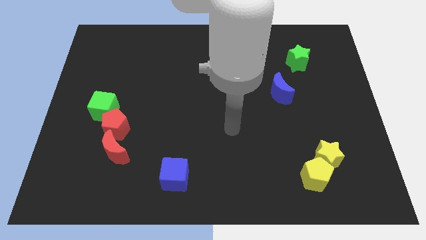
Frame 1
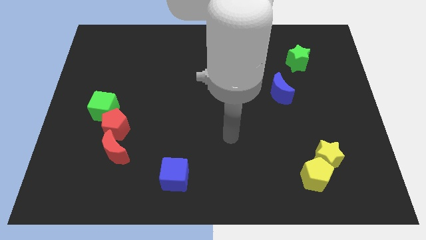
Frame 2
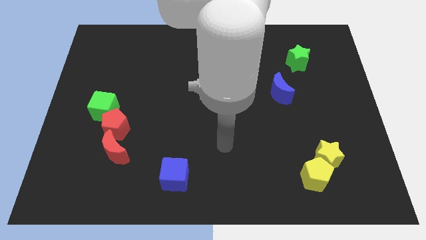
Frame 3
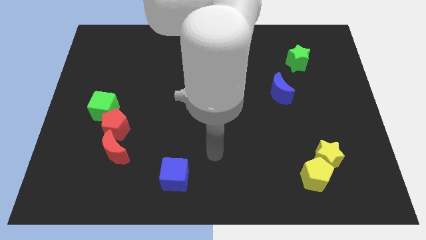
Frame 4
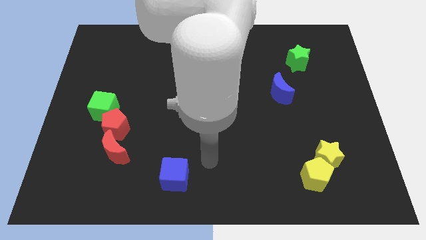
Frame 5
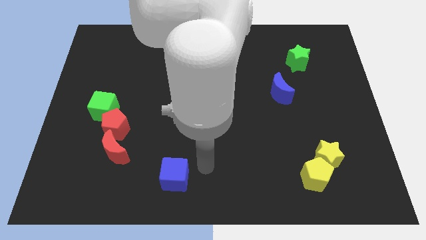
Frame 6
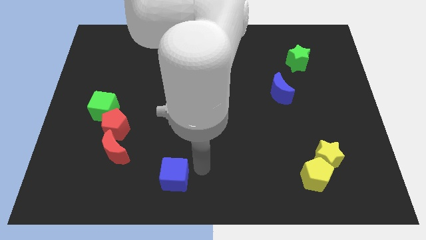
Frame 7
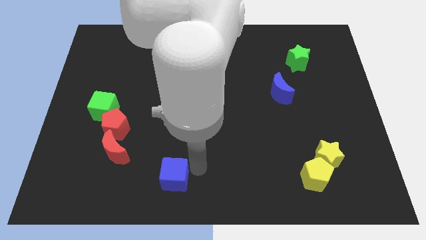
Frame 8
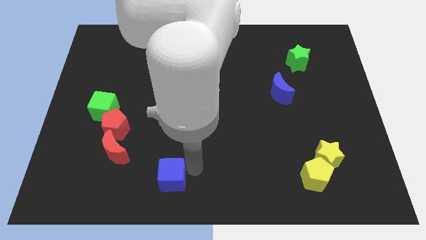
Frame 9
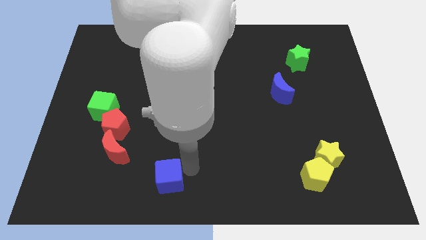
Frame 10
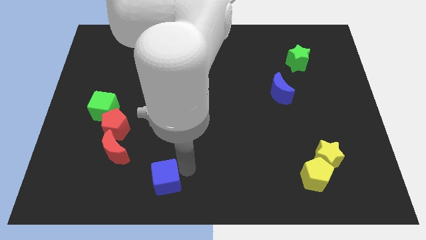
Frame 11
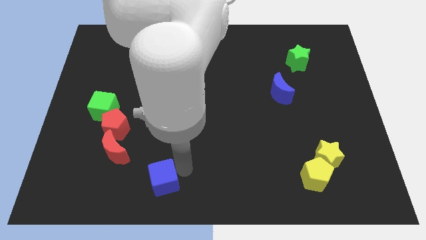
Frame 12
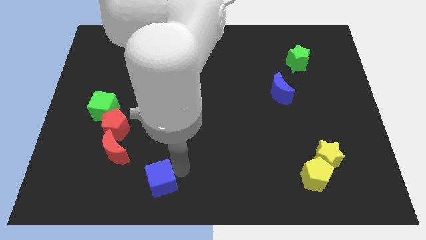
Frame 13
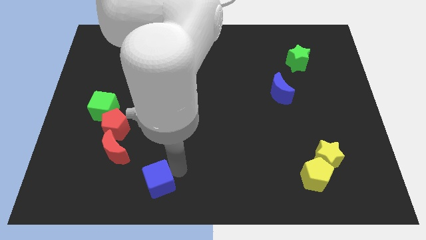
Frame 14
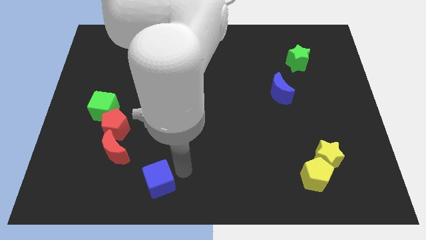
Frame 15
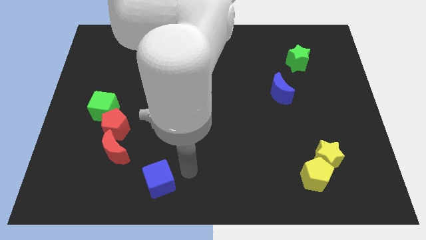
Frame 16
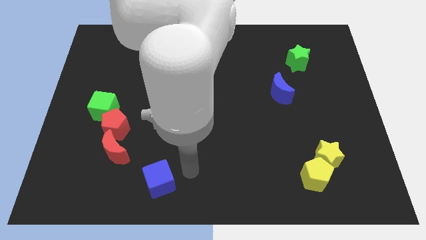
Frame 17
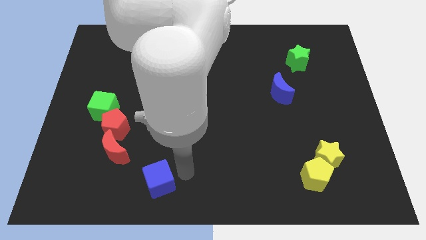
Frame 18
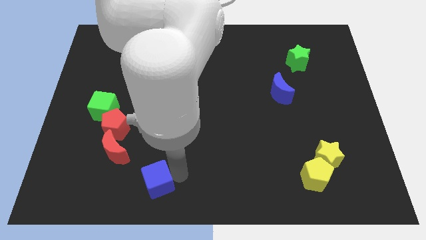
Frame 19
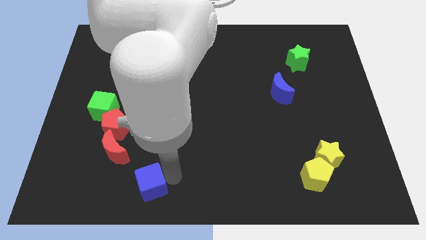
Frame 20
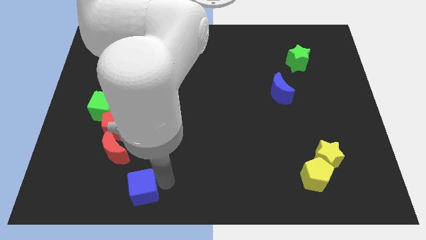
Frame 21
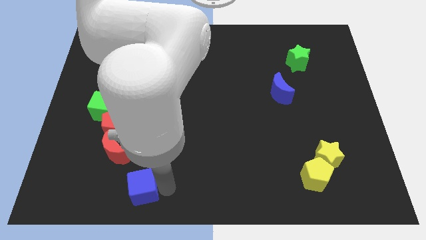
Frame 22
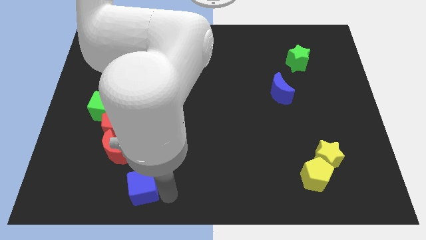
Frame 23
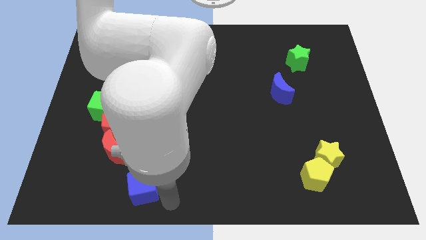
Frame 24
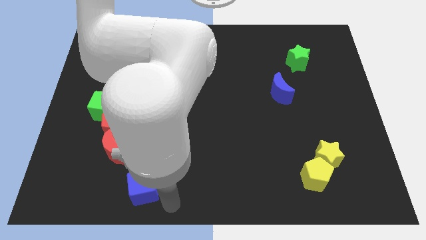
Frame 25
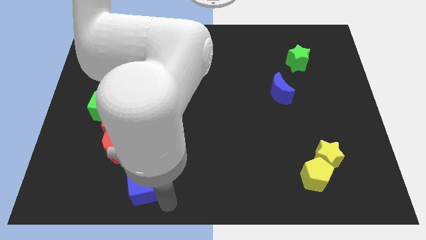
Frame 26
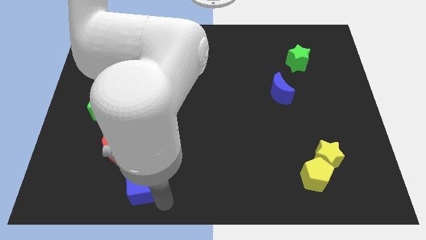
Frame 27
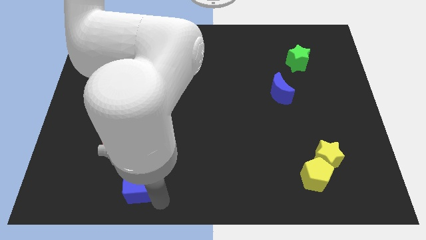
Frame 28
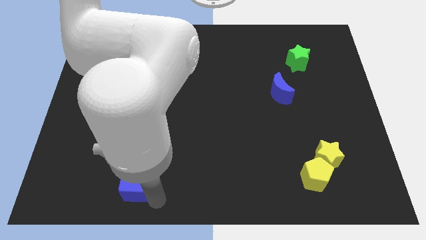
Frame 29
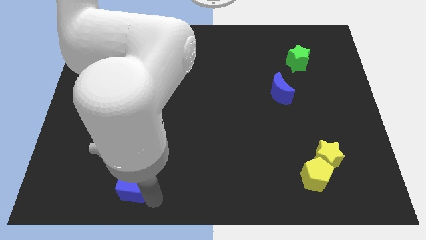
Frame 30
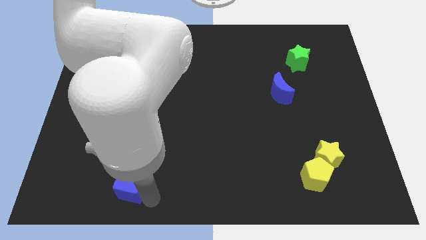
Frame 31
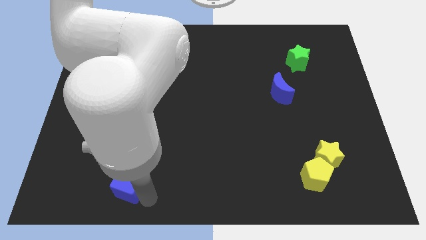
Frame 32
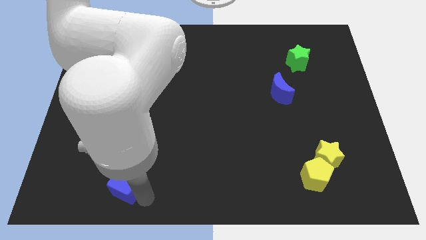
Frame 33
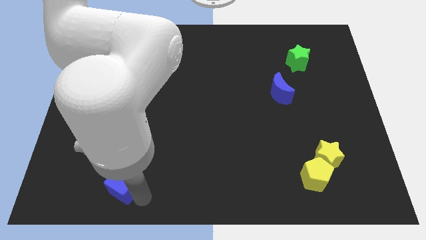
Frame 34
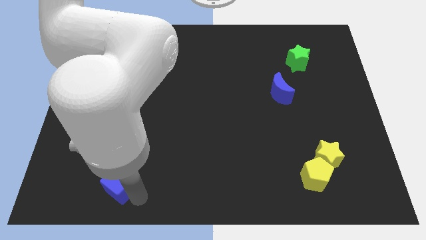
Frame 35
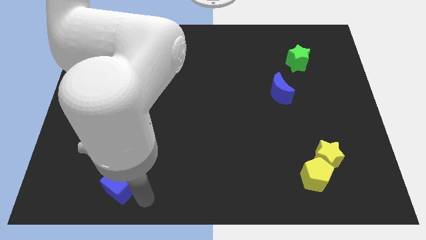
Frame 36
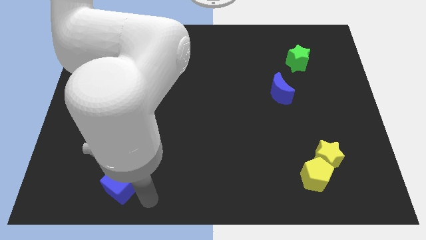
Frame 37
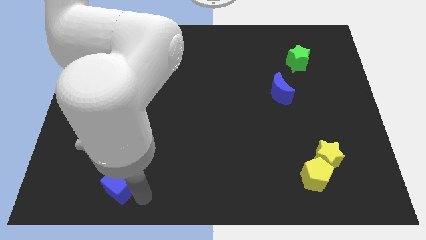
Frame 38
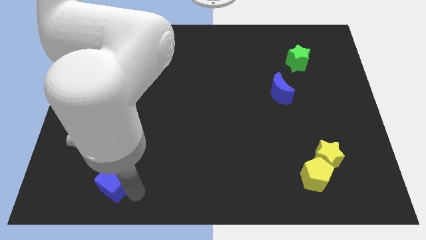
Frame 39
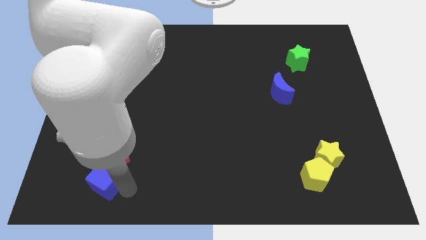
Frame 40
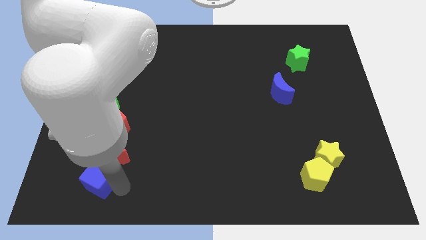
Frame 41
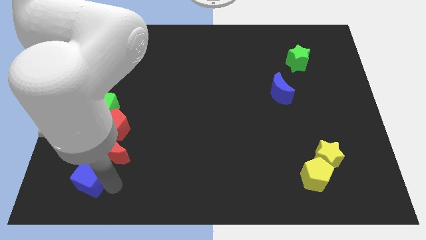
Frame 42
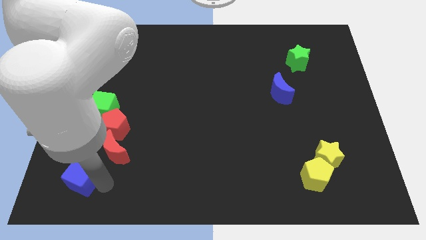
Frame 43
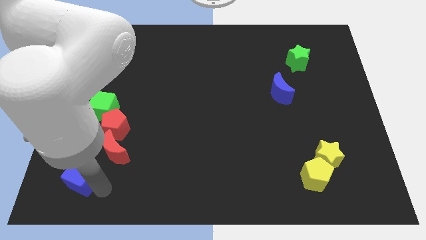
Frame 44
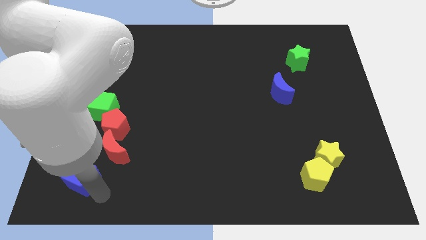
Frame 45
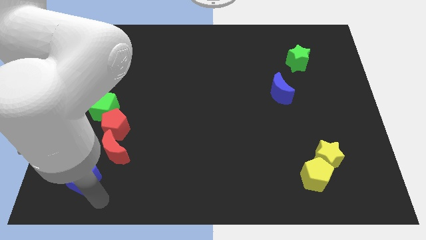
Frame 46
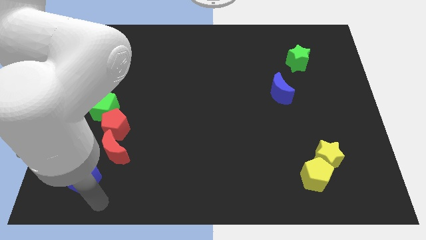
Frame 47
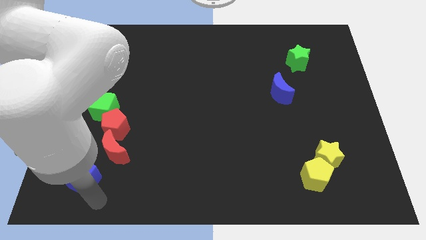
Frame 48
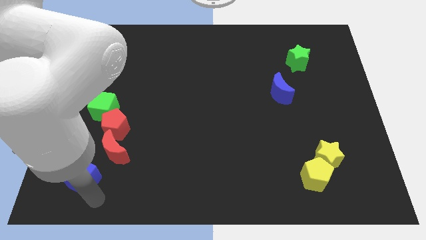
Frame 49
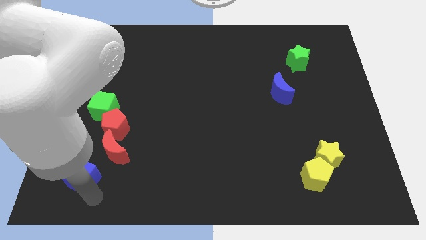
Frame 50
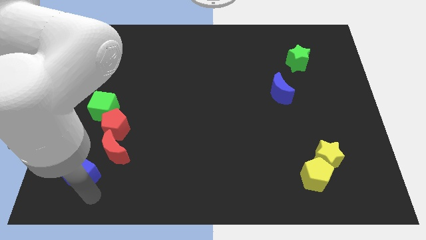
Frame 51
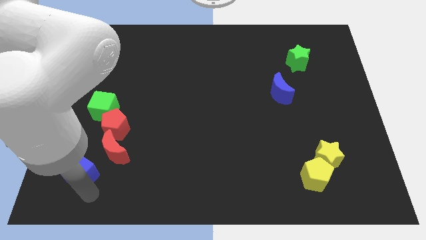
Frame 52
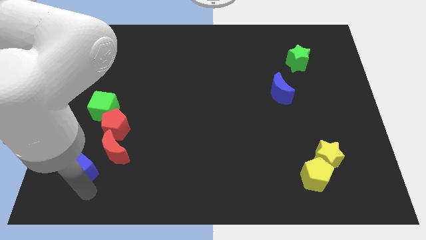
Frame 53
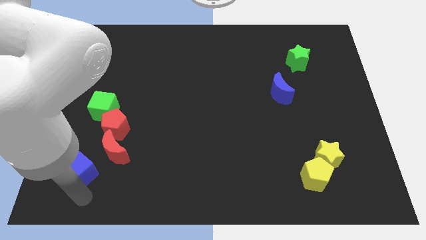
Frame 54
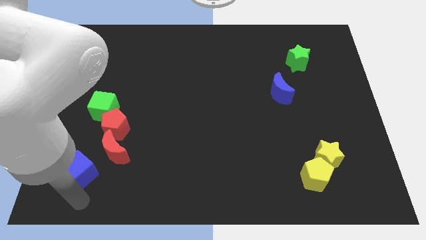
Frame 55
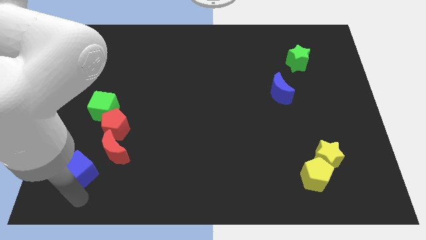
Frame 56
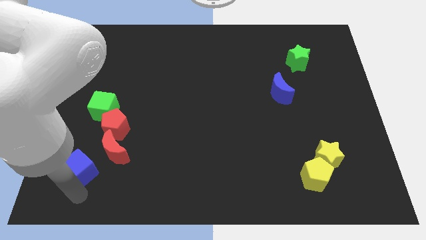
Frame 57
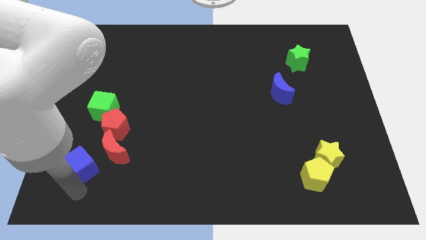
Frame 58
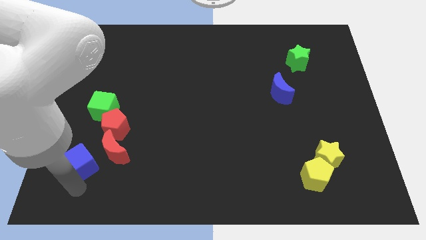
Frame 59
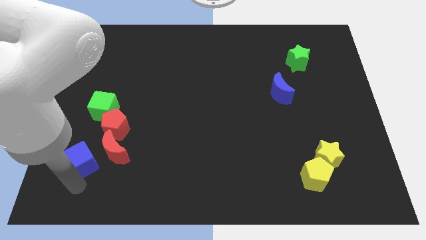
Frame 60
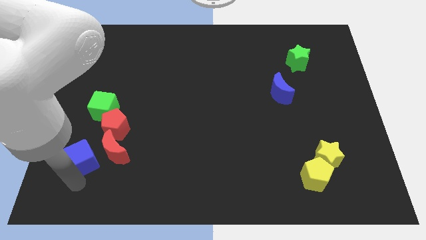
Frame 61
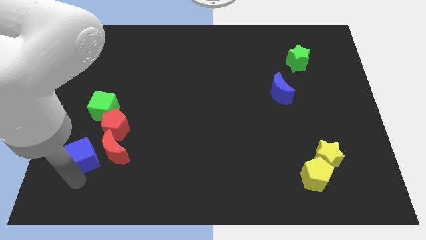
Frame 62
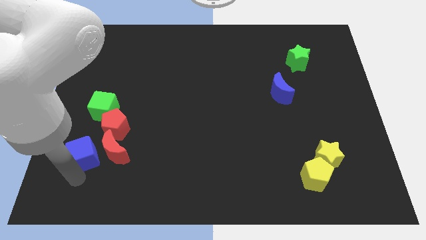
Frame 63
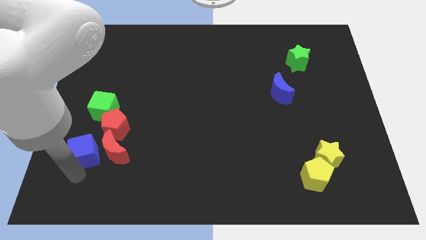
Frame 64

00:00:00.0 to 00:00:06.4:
slide the blue cube diagonally up and to the left of the red moon
